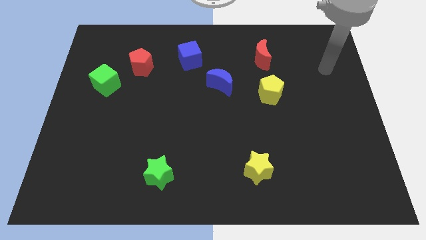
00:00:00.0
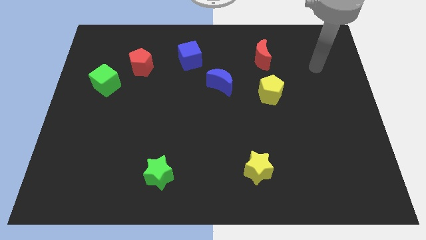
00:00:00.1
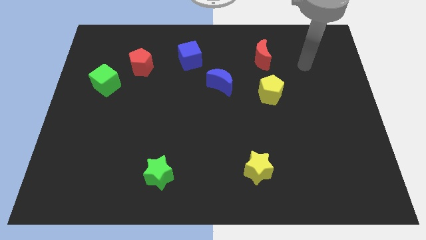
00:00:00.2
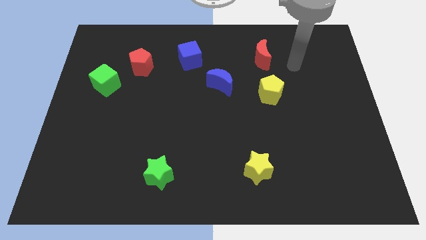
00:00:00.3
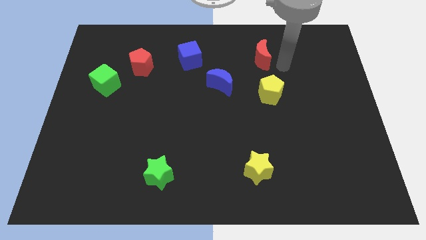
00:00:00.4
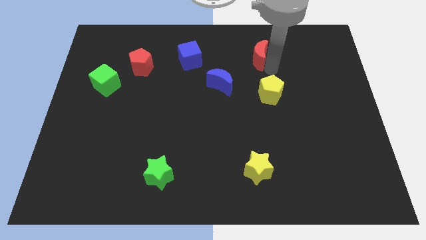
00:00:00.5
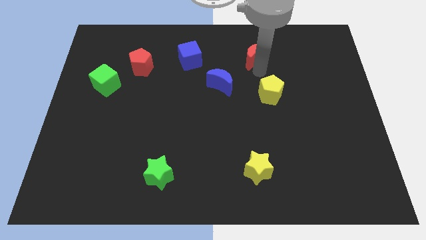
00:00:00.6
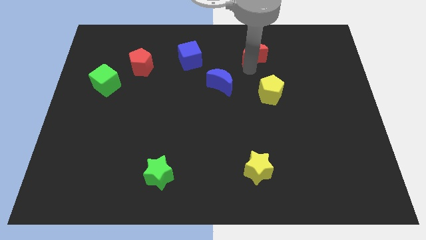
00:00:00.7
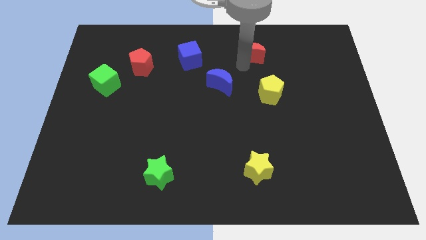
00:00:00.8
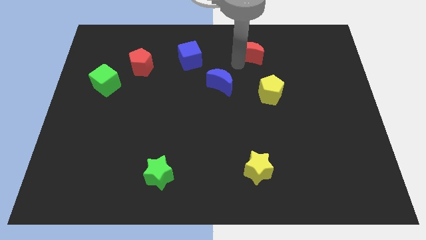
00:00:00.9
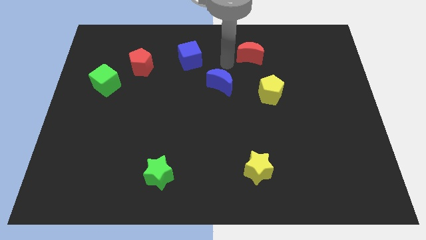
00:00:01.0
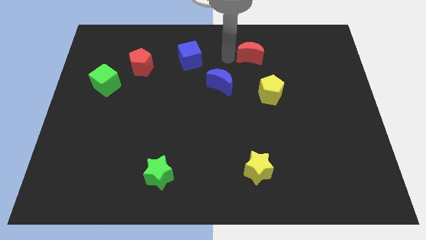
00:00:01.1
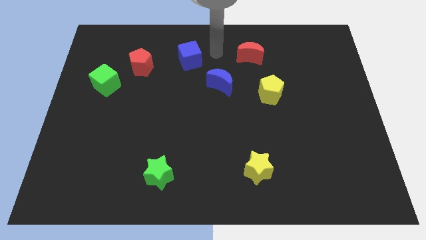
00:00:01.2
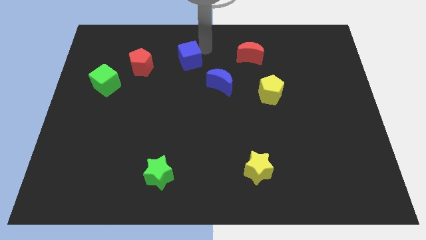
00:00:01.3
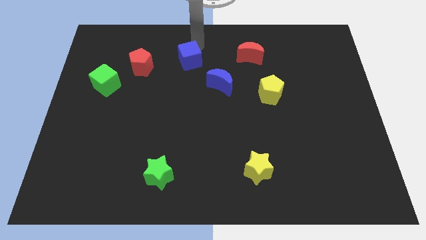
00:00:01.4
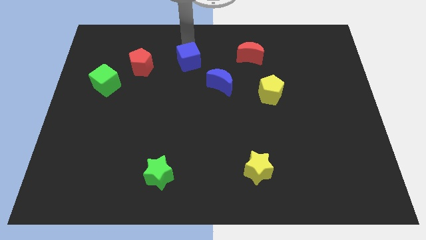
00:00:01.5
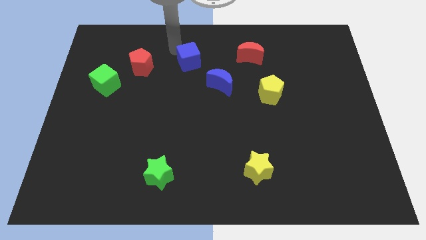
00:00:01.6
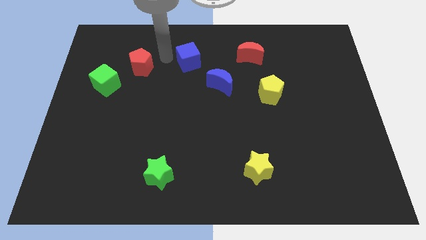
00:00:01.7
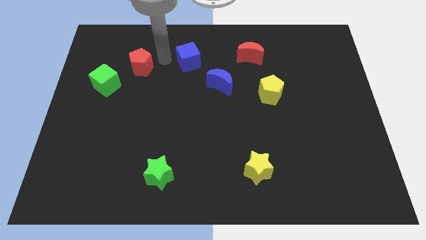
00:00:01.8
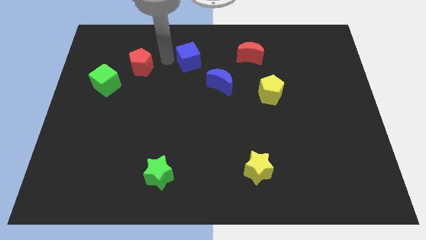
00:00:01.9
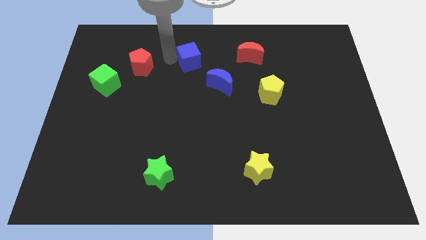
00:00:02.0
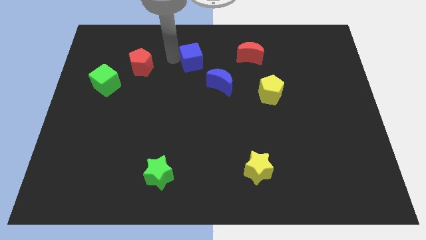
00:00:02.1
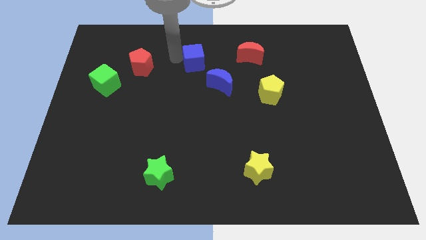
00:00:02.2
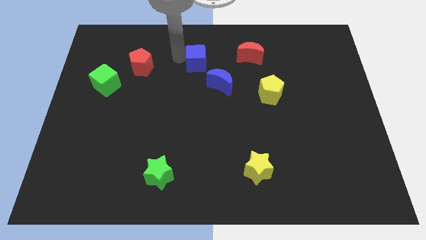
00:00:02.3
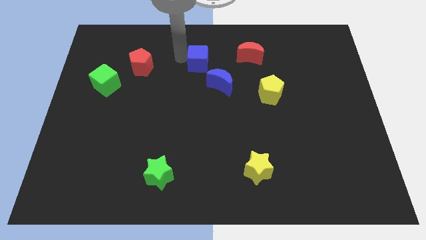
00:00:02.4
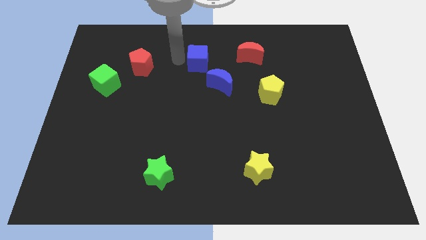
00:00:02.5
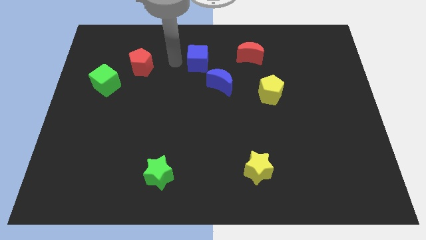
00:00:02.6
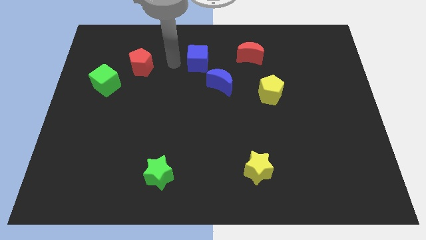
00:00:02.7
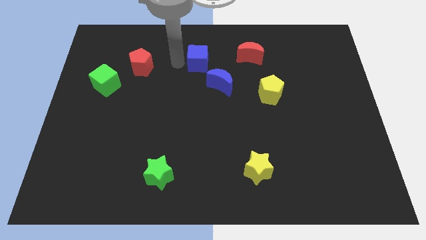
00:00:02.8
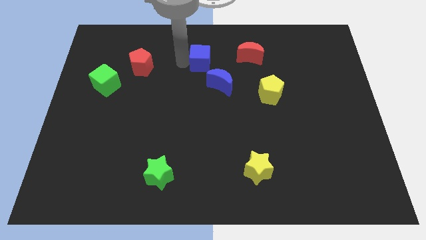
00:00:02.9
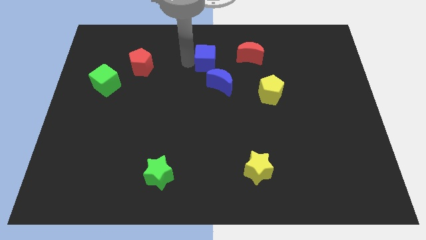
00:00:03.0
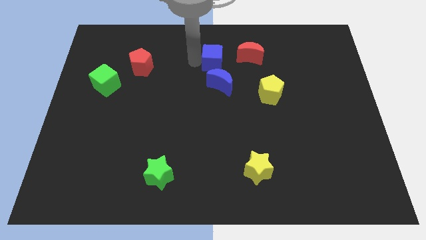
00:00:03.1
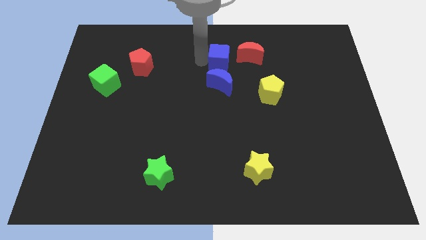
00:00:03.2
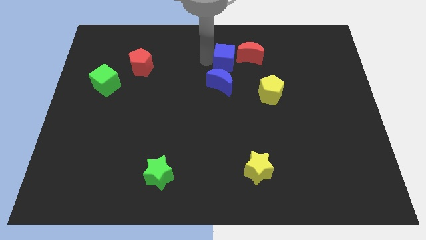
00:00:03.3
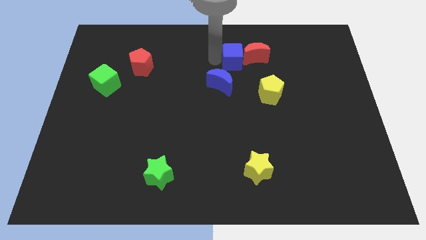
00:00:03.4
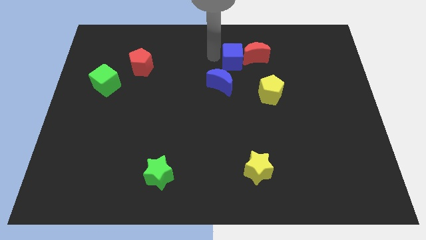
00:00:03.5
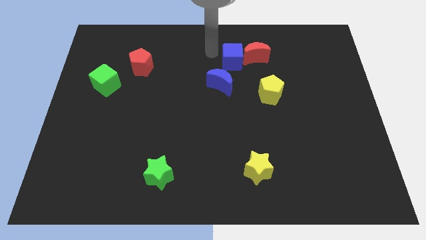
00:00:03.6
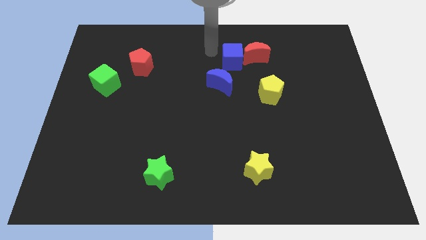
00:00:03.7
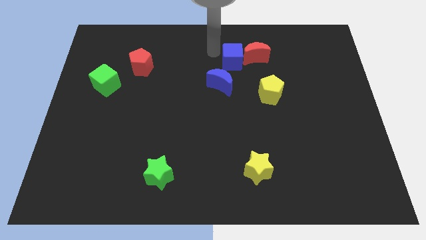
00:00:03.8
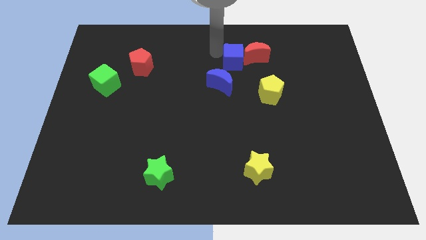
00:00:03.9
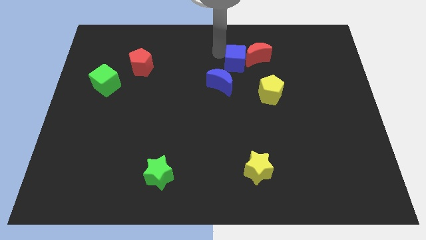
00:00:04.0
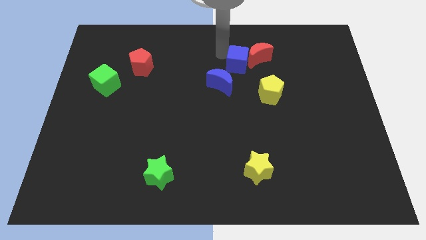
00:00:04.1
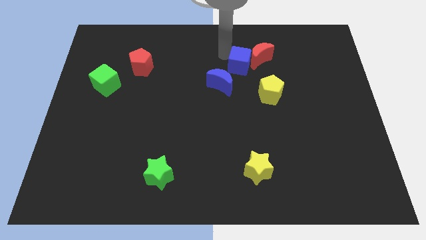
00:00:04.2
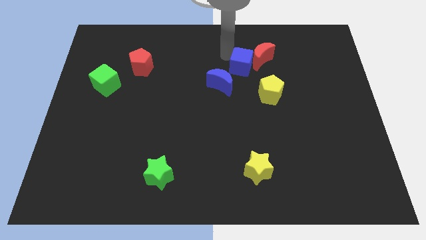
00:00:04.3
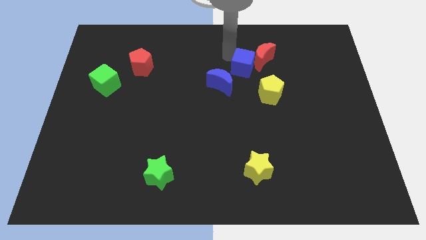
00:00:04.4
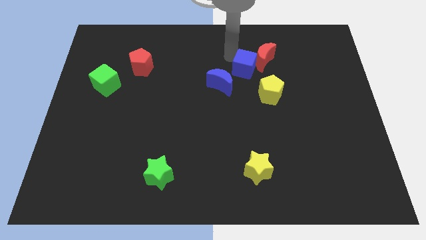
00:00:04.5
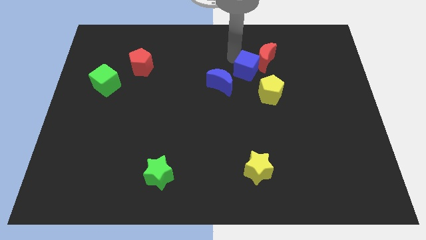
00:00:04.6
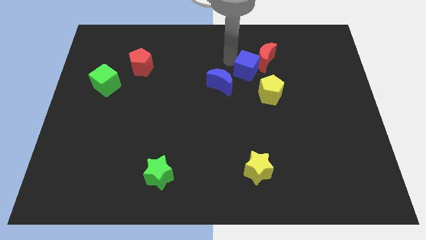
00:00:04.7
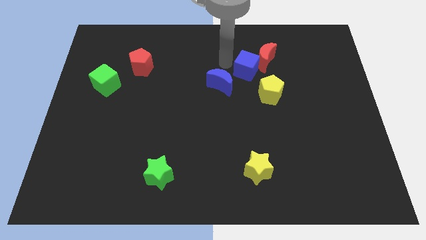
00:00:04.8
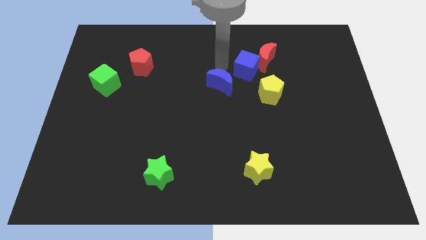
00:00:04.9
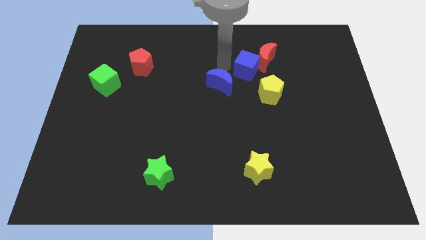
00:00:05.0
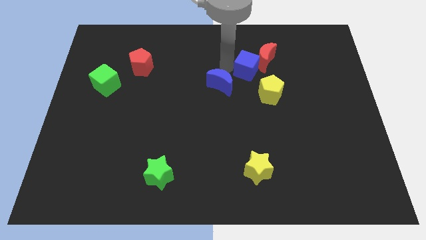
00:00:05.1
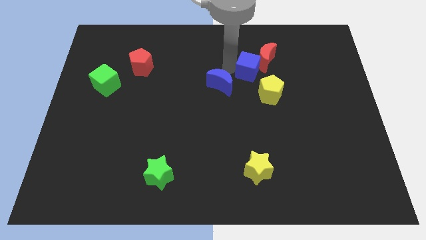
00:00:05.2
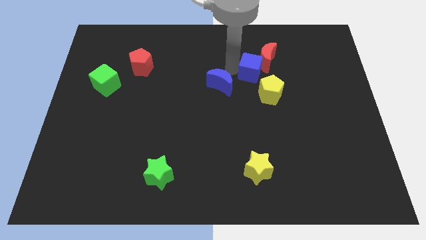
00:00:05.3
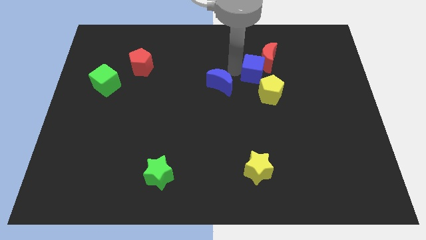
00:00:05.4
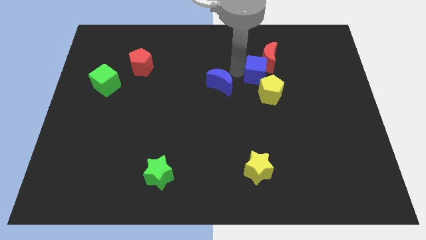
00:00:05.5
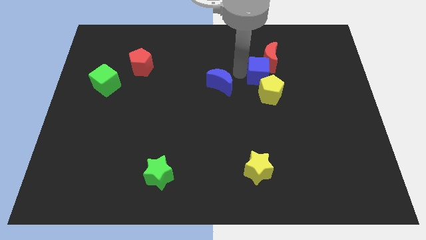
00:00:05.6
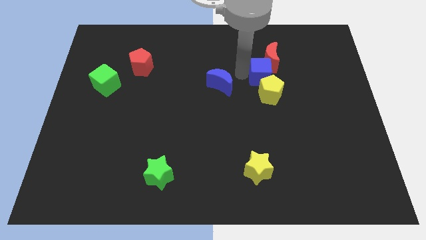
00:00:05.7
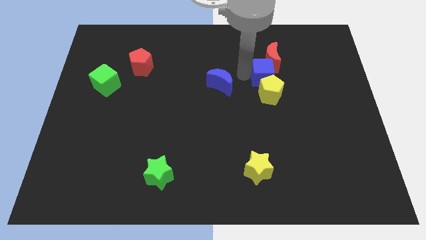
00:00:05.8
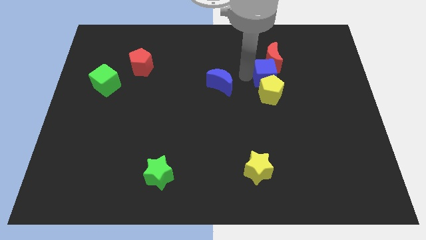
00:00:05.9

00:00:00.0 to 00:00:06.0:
push the blue cube diagonally up and to the right of the yellow pentagon

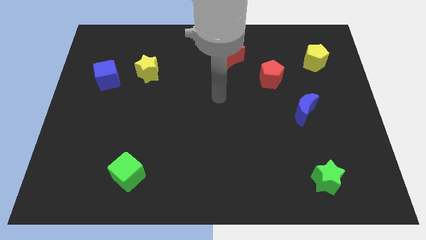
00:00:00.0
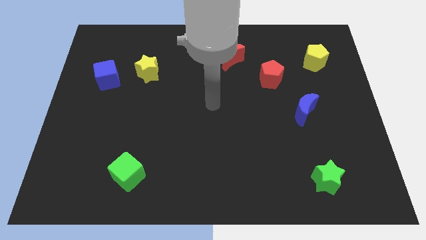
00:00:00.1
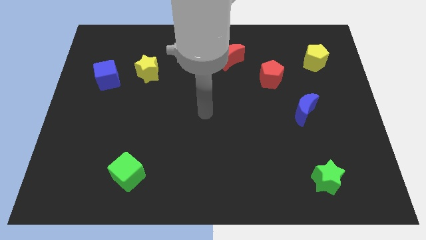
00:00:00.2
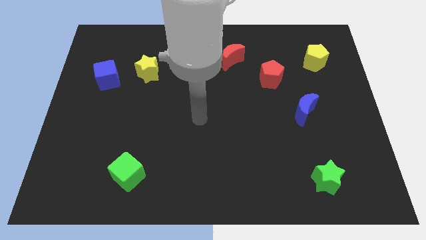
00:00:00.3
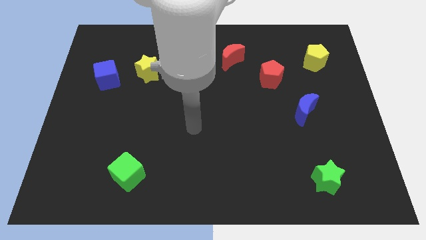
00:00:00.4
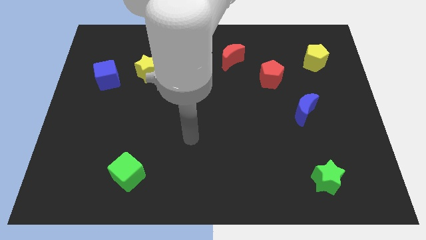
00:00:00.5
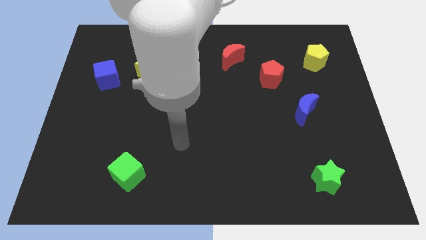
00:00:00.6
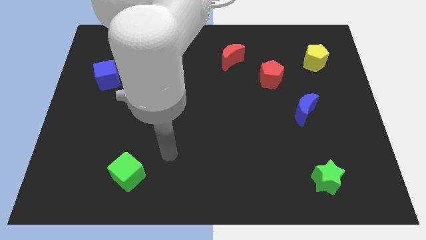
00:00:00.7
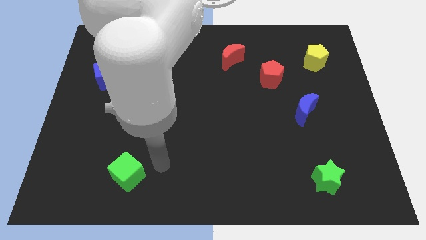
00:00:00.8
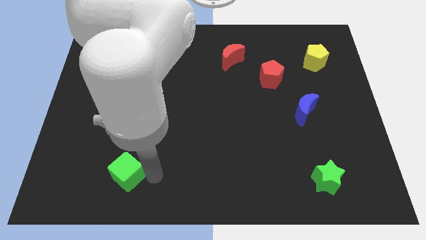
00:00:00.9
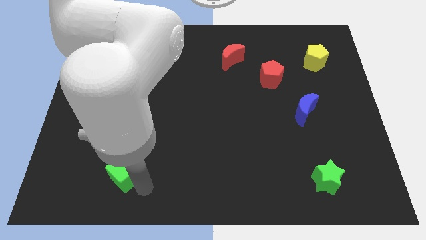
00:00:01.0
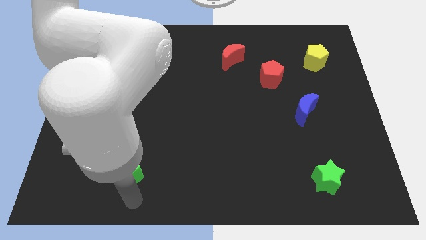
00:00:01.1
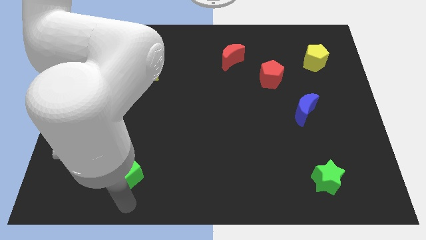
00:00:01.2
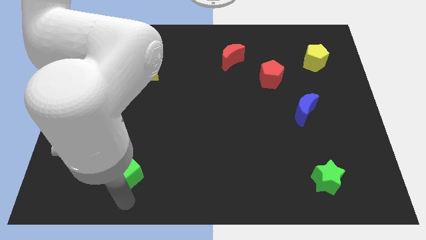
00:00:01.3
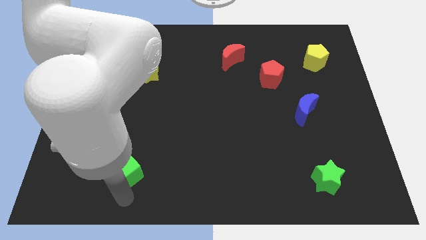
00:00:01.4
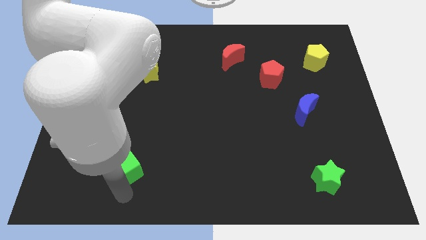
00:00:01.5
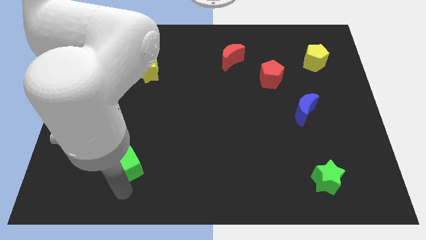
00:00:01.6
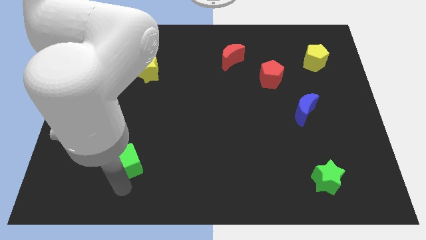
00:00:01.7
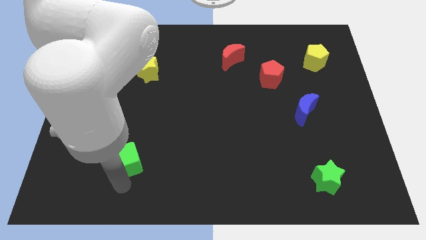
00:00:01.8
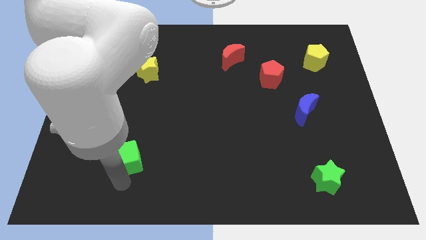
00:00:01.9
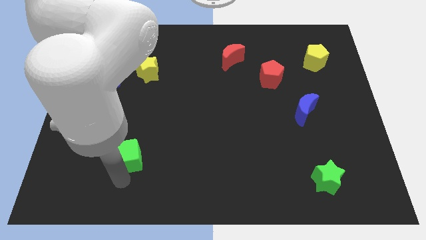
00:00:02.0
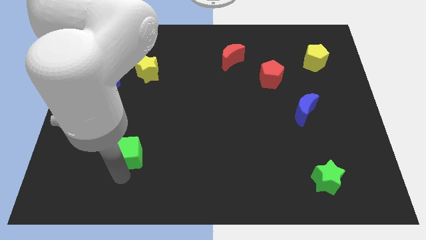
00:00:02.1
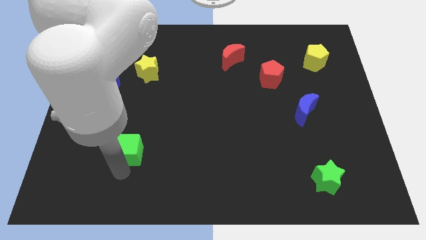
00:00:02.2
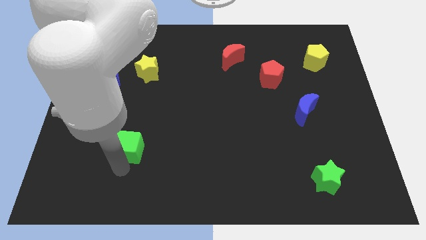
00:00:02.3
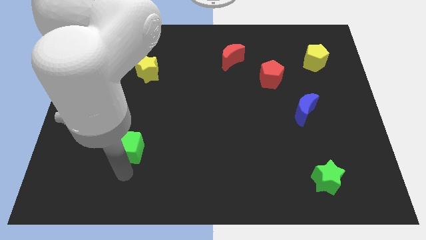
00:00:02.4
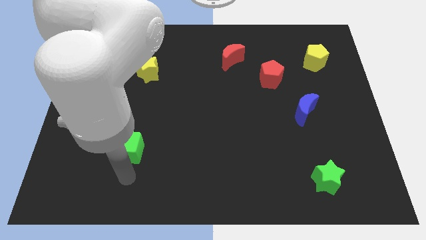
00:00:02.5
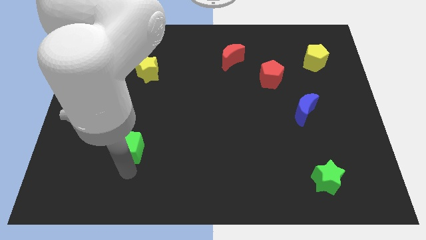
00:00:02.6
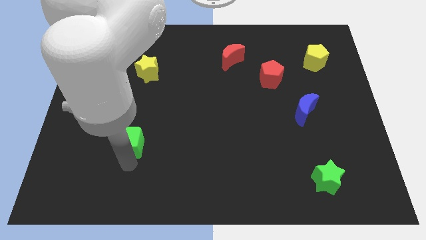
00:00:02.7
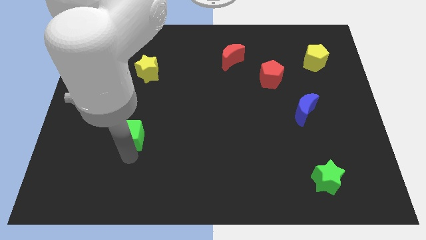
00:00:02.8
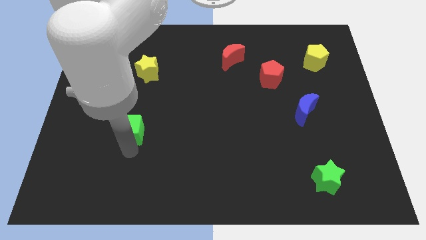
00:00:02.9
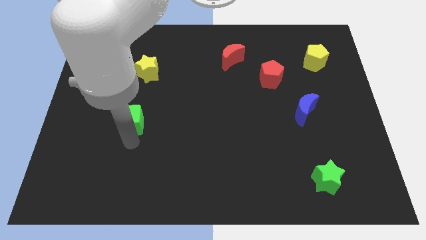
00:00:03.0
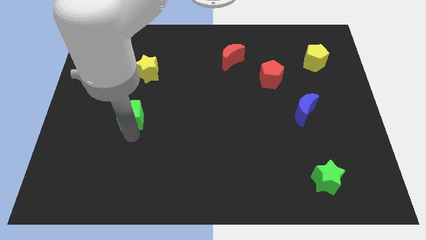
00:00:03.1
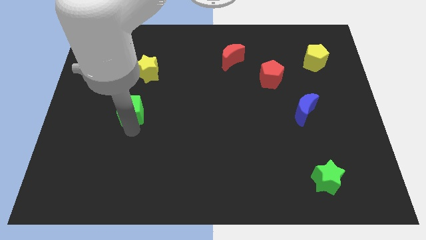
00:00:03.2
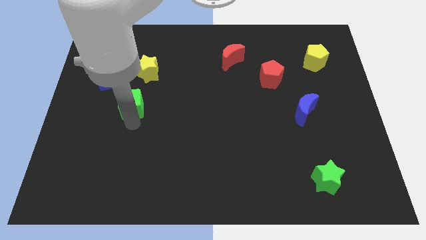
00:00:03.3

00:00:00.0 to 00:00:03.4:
push the green cube to the bottom right of the blue cube
